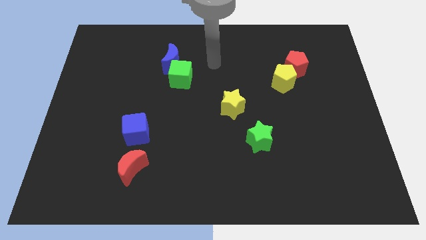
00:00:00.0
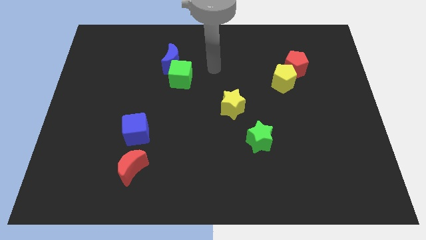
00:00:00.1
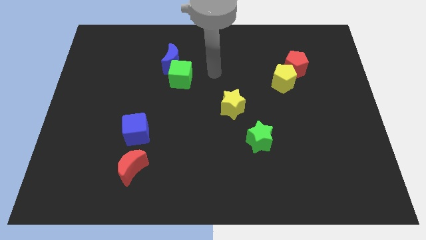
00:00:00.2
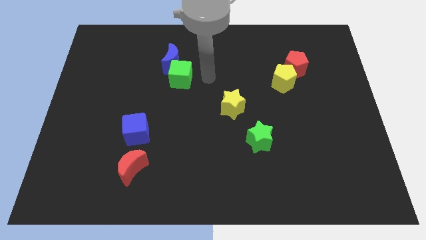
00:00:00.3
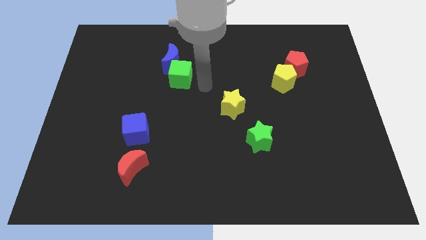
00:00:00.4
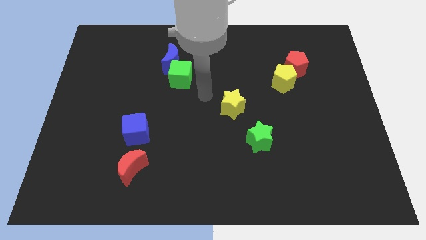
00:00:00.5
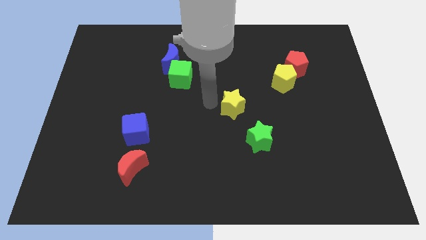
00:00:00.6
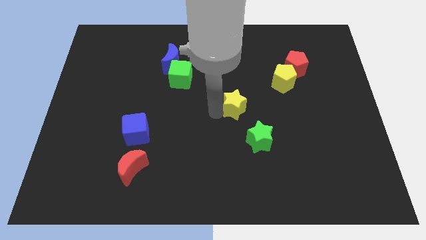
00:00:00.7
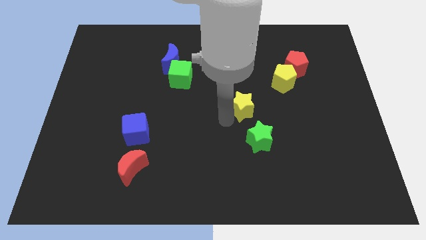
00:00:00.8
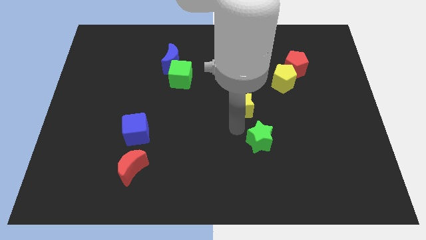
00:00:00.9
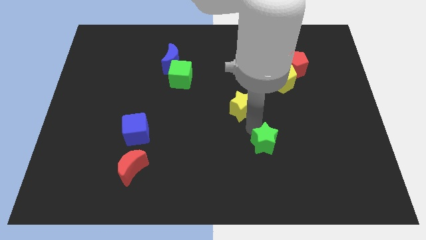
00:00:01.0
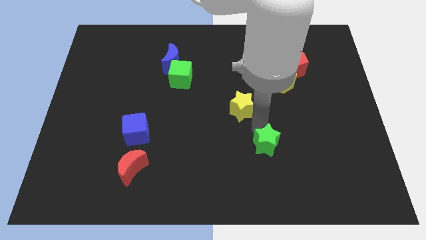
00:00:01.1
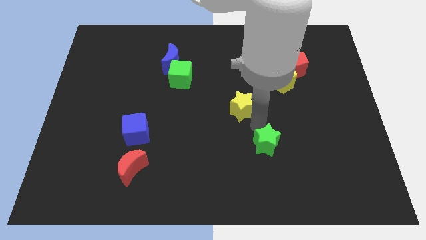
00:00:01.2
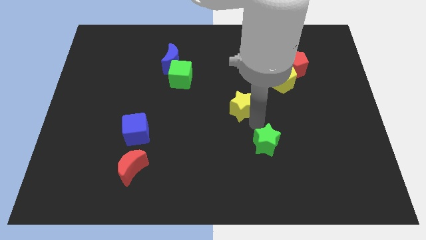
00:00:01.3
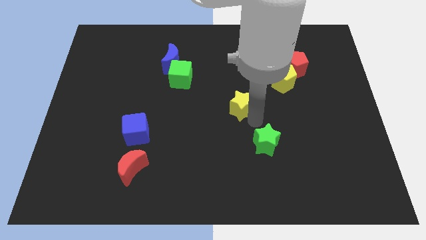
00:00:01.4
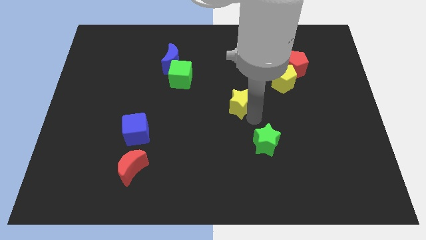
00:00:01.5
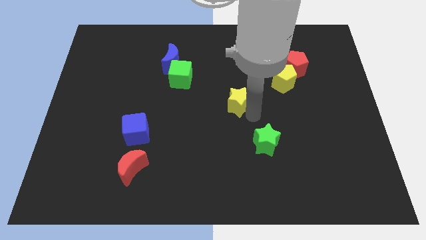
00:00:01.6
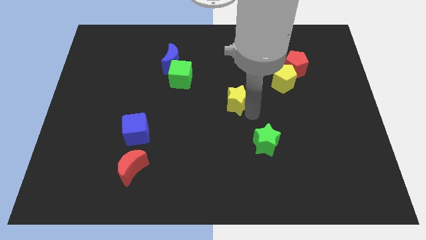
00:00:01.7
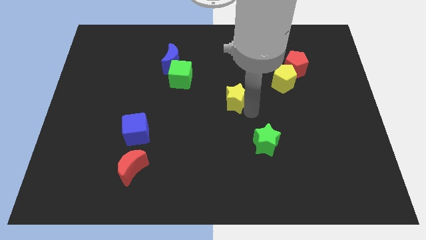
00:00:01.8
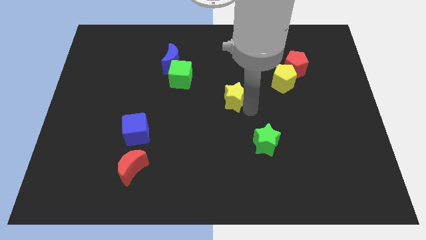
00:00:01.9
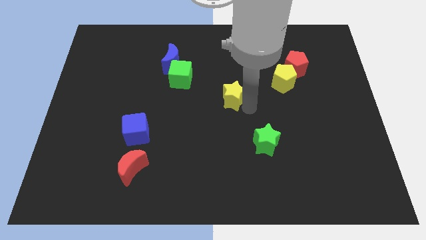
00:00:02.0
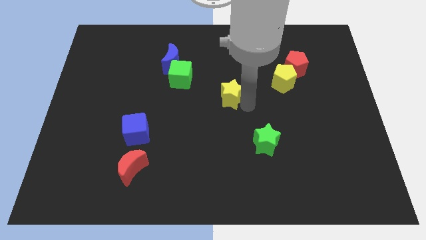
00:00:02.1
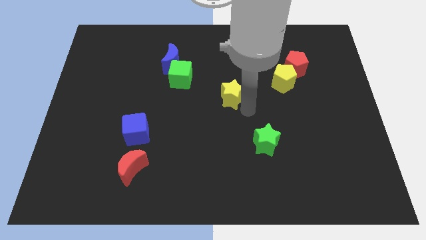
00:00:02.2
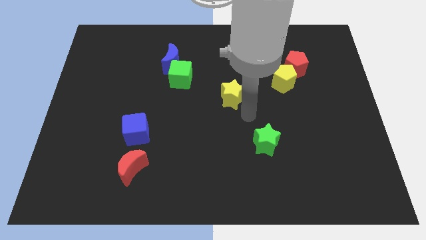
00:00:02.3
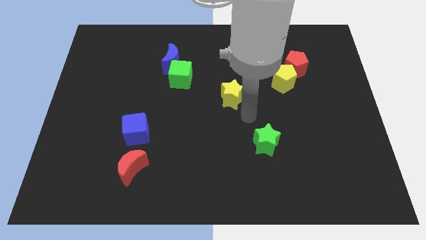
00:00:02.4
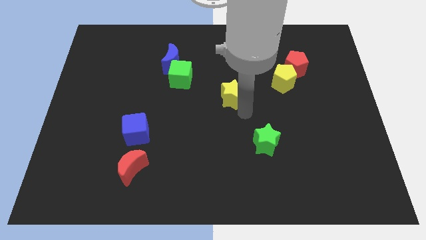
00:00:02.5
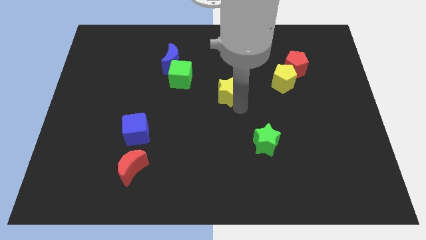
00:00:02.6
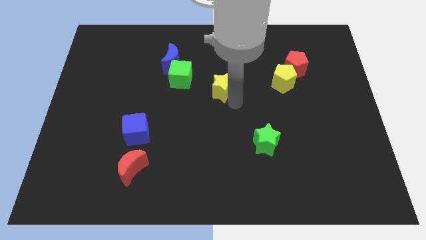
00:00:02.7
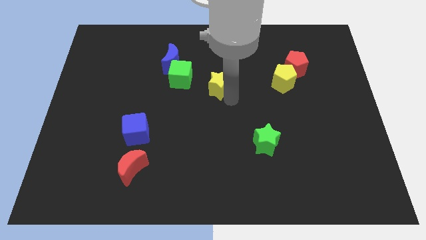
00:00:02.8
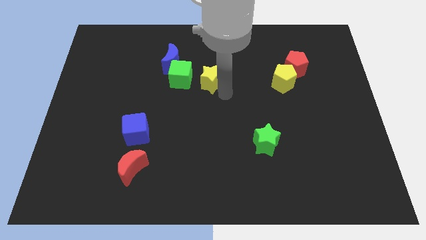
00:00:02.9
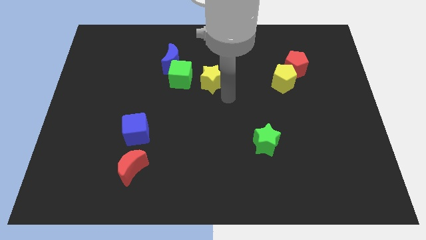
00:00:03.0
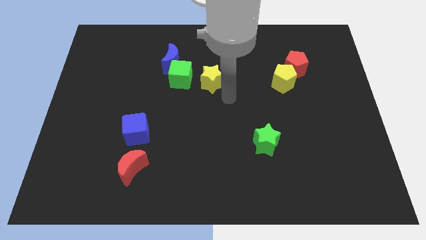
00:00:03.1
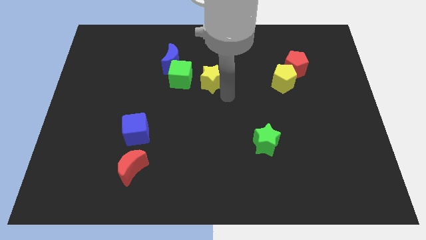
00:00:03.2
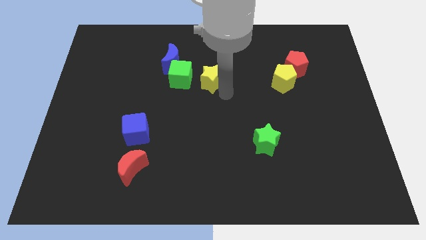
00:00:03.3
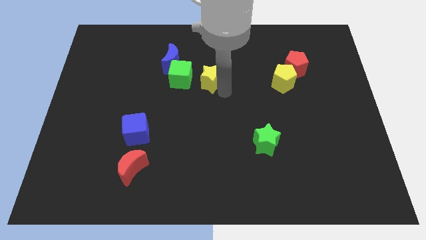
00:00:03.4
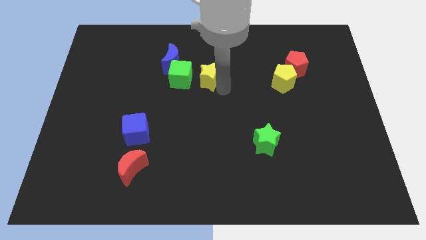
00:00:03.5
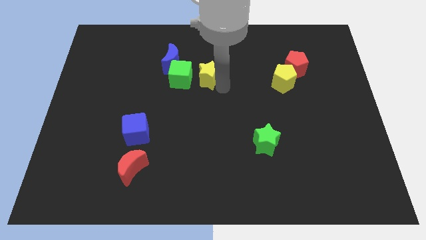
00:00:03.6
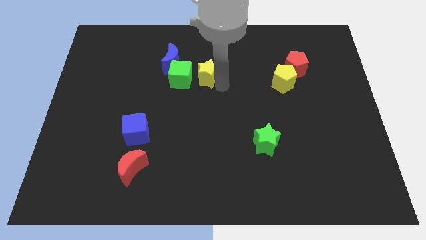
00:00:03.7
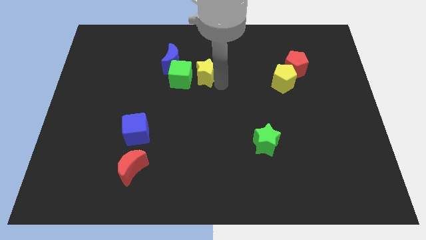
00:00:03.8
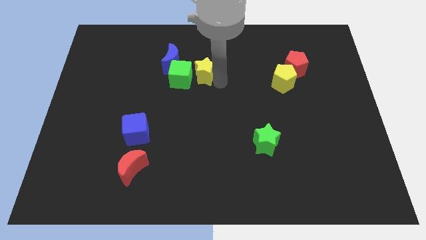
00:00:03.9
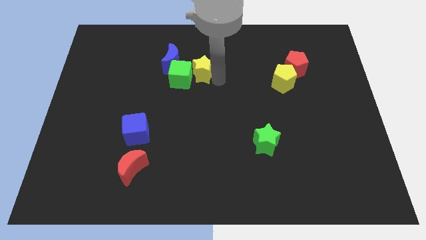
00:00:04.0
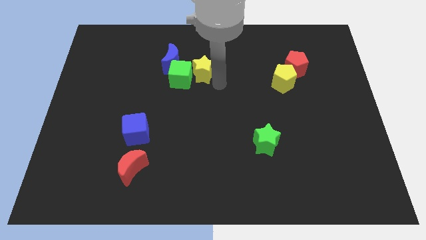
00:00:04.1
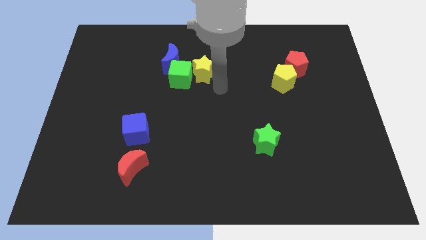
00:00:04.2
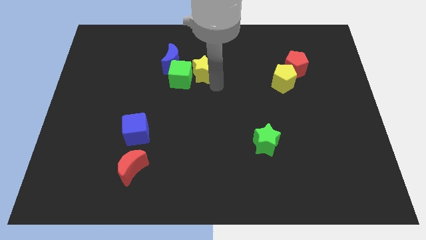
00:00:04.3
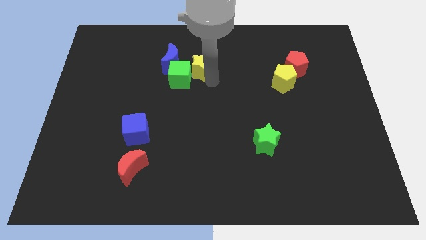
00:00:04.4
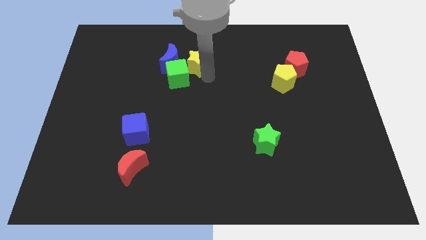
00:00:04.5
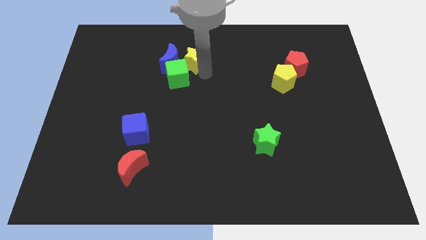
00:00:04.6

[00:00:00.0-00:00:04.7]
push the yellow star towards the blue moon

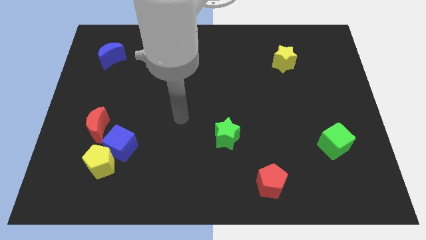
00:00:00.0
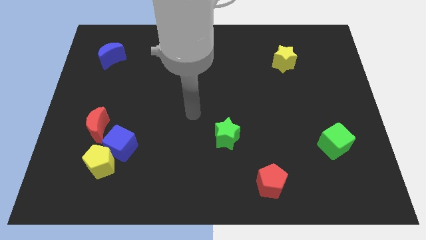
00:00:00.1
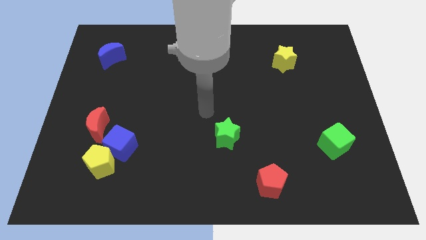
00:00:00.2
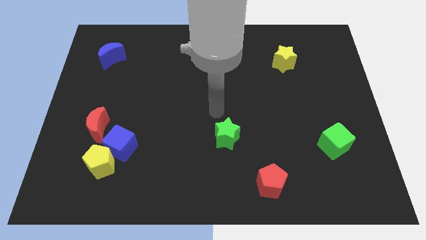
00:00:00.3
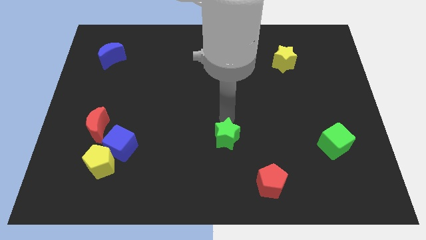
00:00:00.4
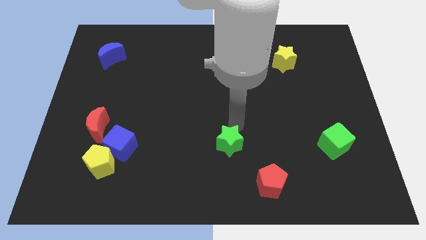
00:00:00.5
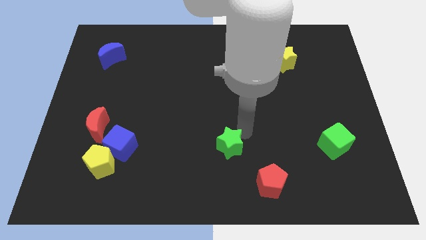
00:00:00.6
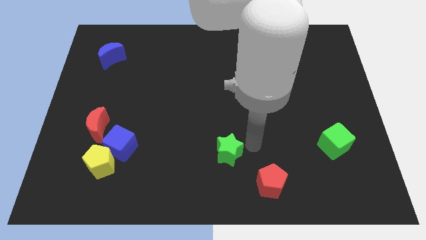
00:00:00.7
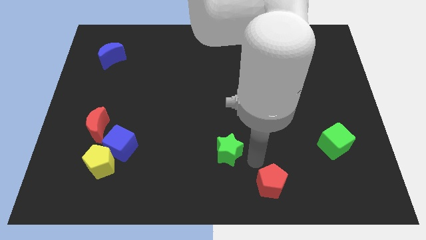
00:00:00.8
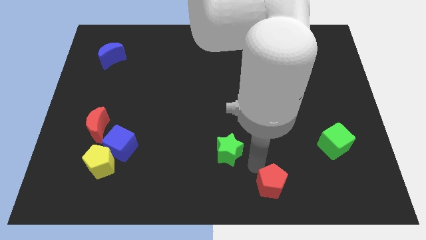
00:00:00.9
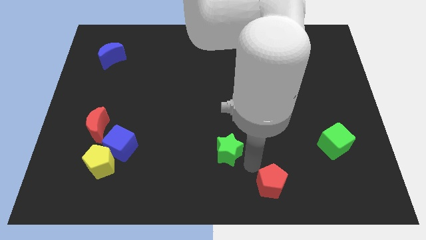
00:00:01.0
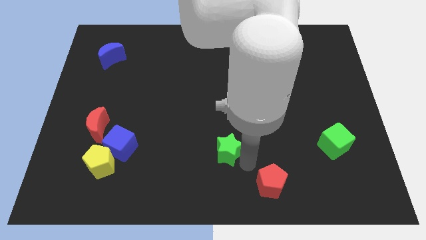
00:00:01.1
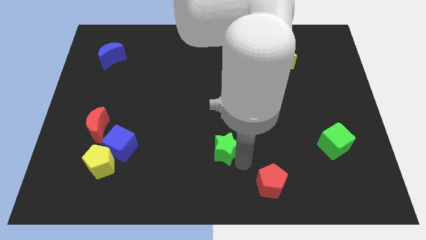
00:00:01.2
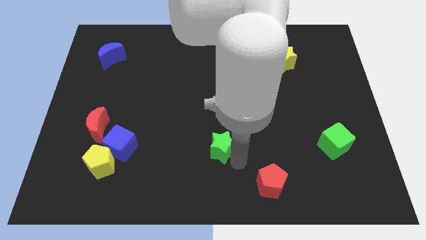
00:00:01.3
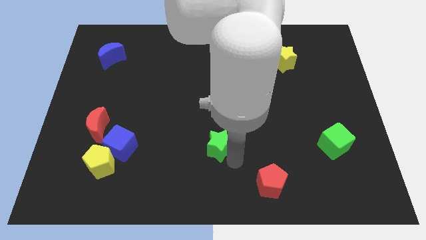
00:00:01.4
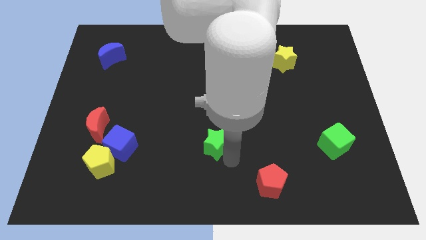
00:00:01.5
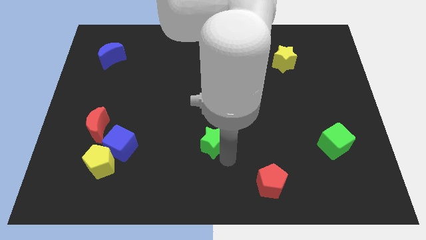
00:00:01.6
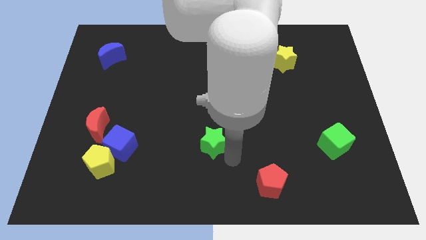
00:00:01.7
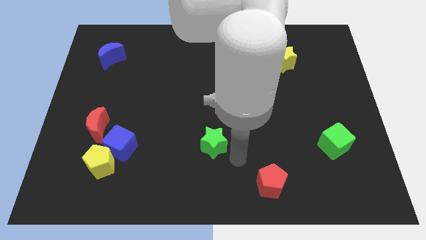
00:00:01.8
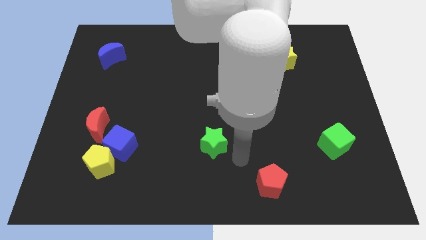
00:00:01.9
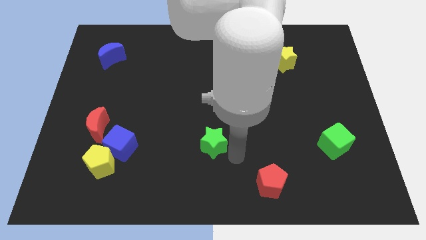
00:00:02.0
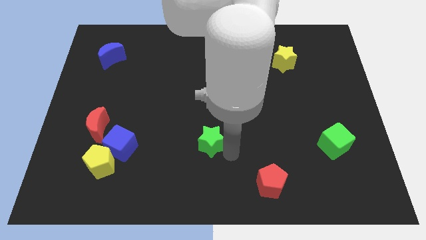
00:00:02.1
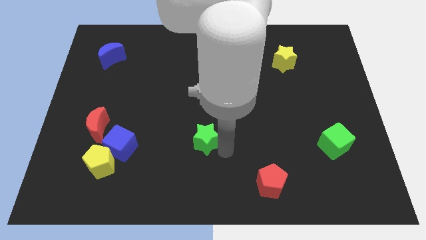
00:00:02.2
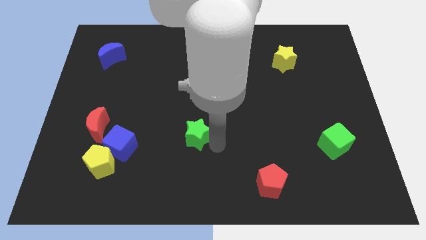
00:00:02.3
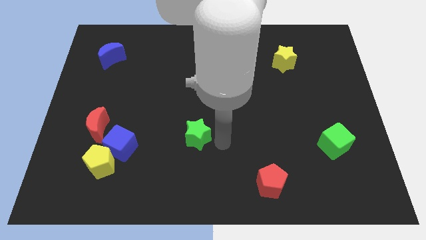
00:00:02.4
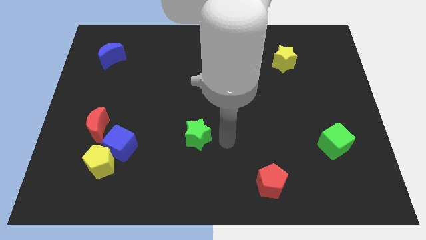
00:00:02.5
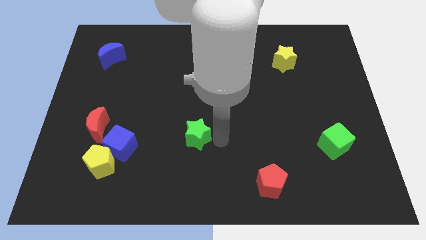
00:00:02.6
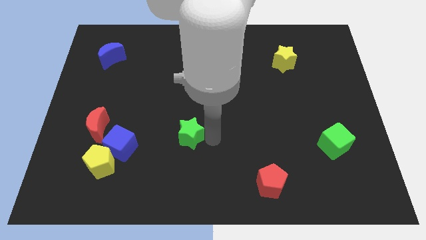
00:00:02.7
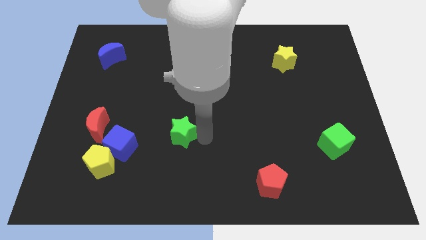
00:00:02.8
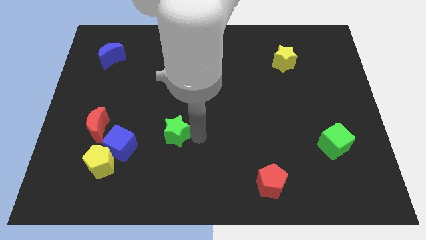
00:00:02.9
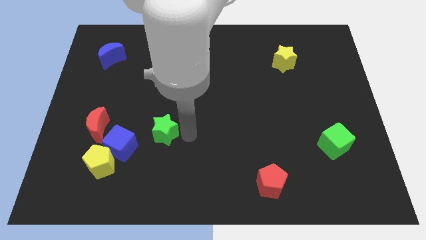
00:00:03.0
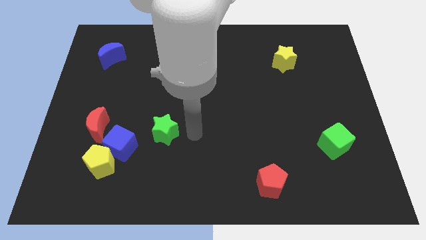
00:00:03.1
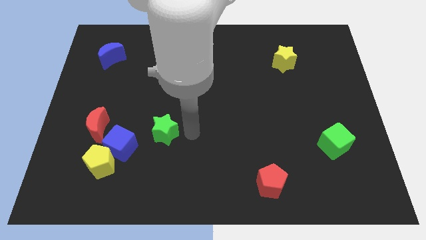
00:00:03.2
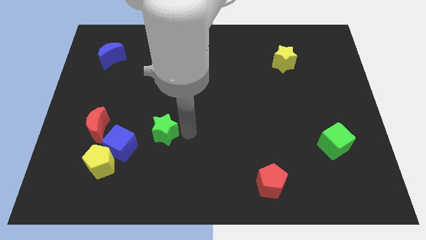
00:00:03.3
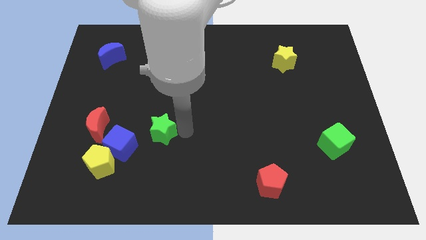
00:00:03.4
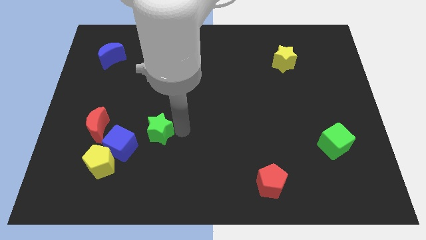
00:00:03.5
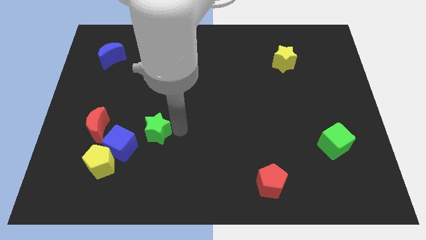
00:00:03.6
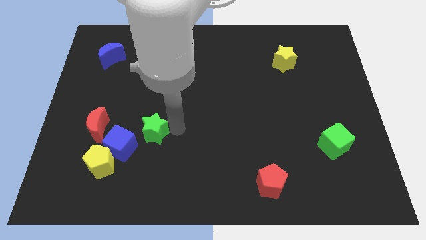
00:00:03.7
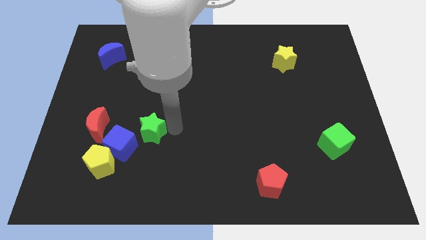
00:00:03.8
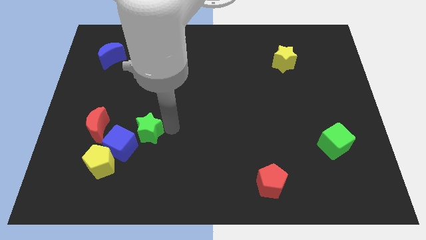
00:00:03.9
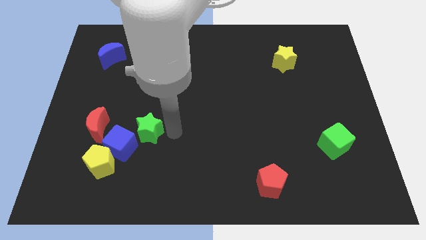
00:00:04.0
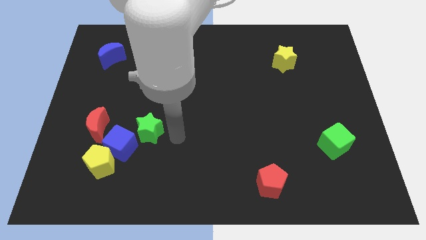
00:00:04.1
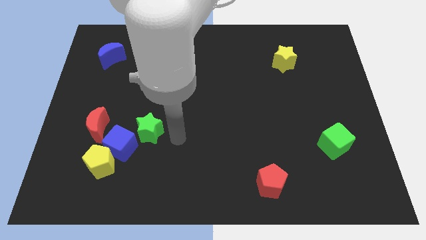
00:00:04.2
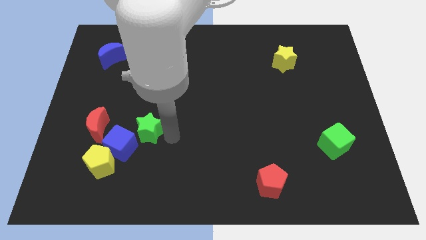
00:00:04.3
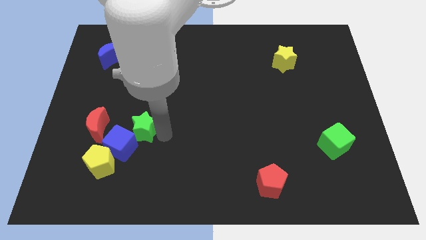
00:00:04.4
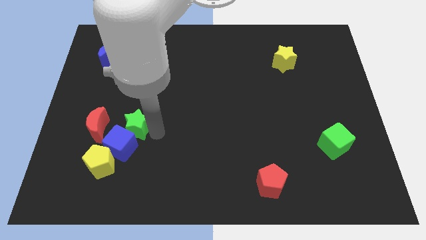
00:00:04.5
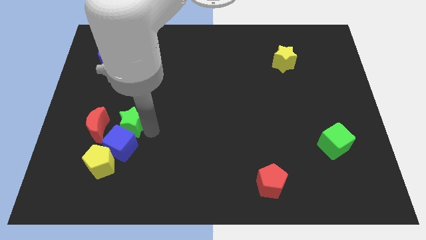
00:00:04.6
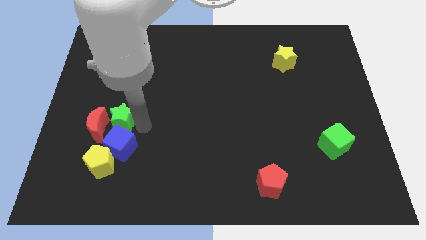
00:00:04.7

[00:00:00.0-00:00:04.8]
put the green star to the red moon
